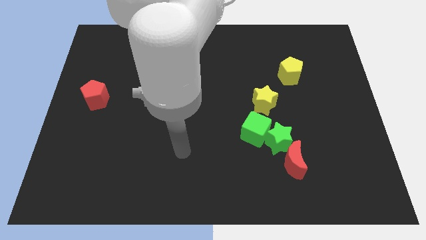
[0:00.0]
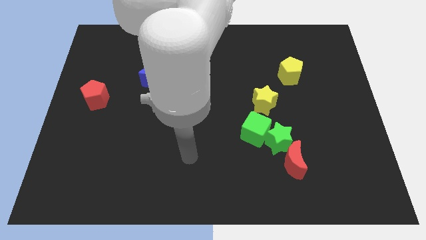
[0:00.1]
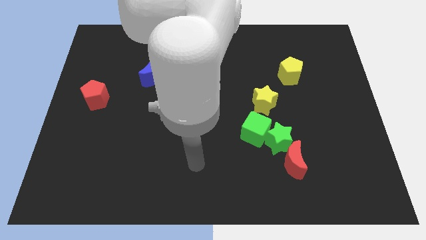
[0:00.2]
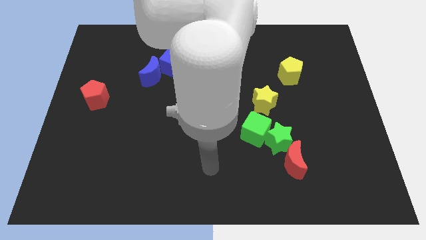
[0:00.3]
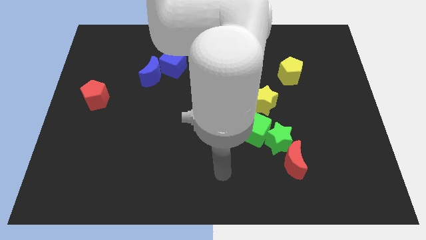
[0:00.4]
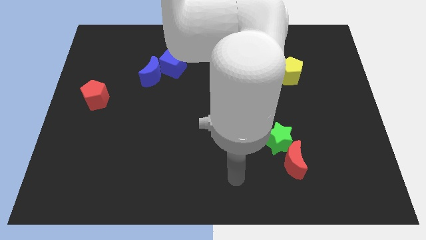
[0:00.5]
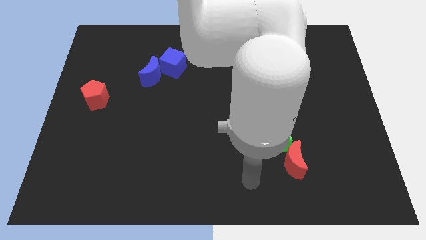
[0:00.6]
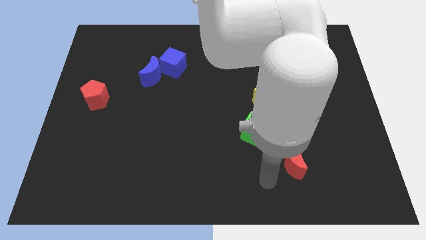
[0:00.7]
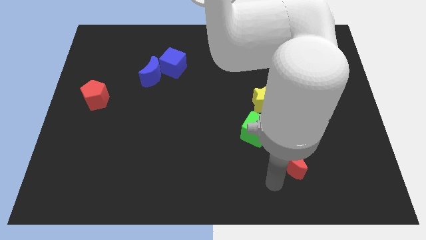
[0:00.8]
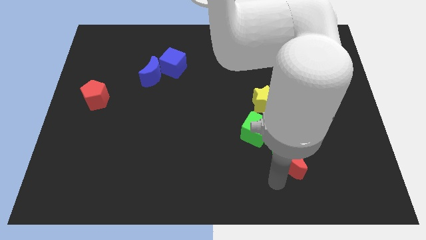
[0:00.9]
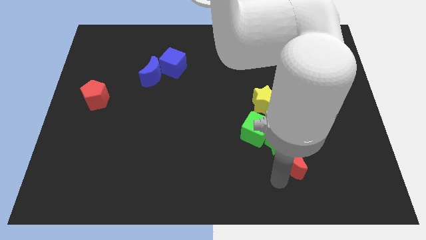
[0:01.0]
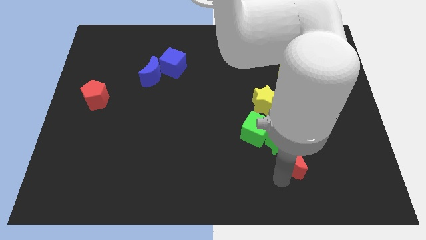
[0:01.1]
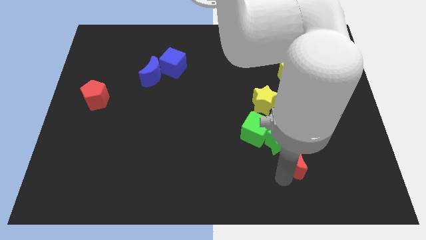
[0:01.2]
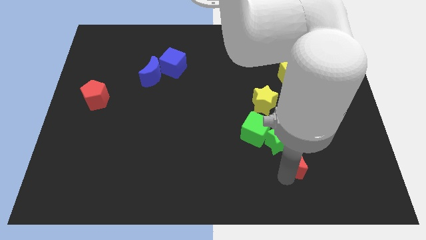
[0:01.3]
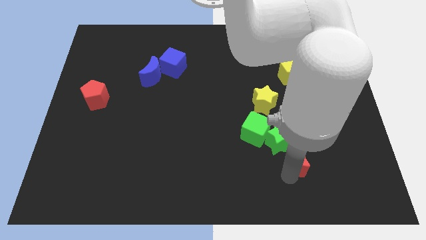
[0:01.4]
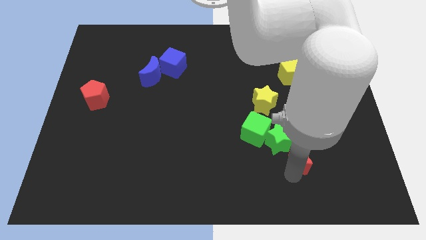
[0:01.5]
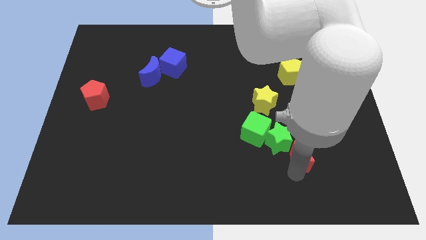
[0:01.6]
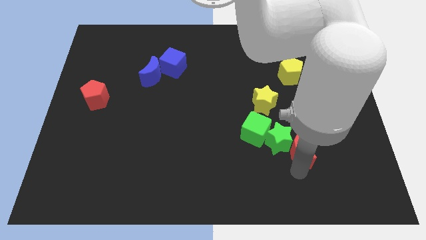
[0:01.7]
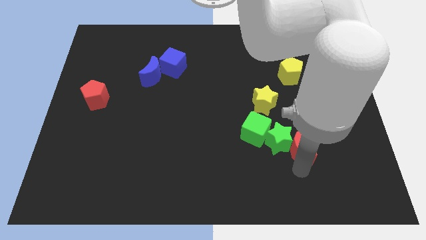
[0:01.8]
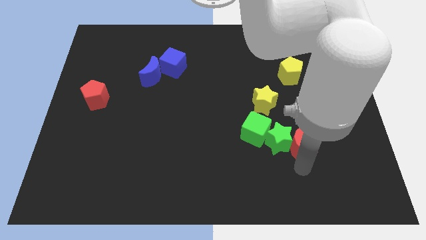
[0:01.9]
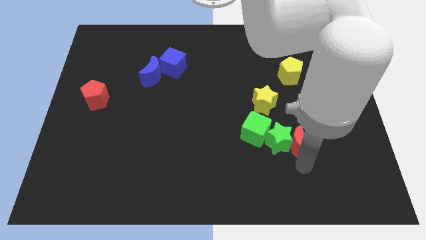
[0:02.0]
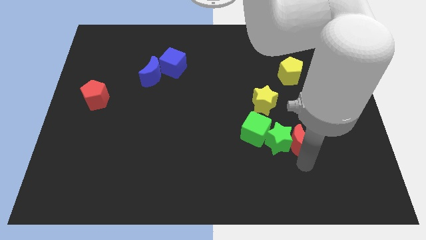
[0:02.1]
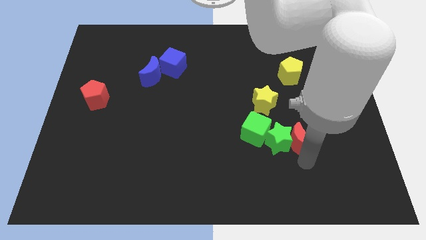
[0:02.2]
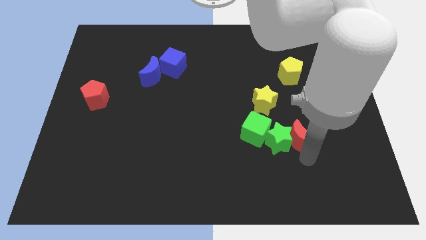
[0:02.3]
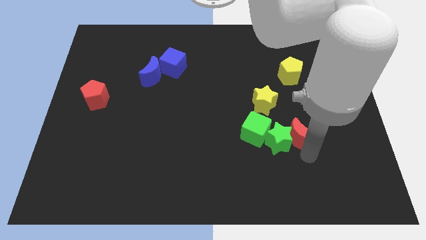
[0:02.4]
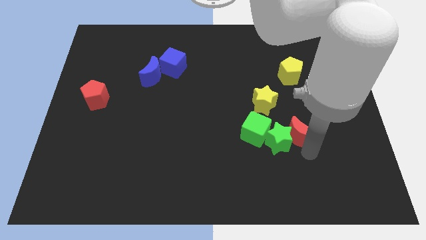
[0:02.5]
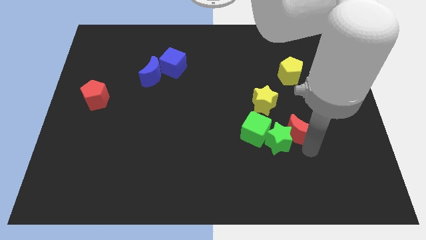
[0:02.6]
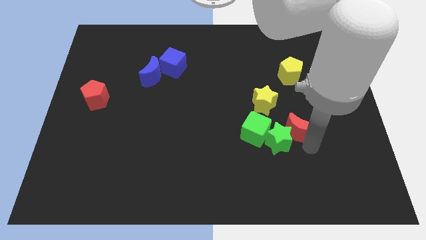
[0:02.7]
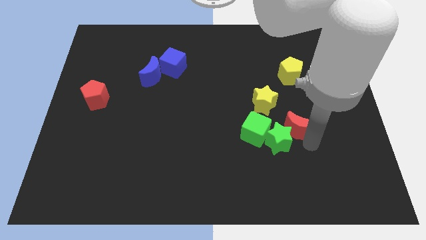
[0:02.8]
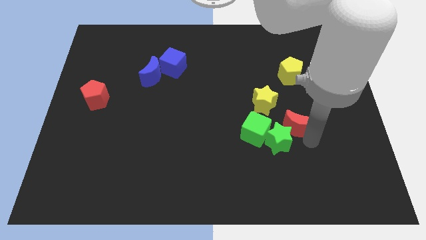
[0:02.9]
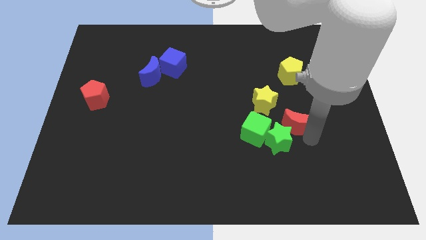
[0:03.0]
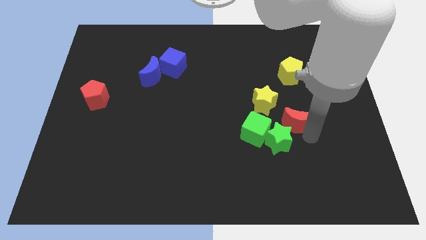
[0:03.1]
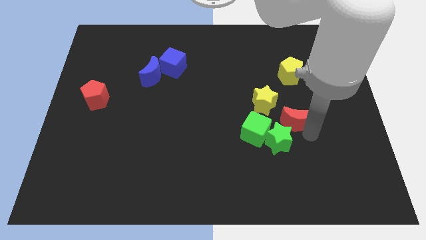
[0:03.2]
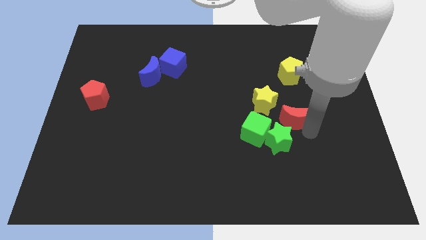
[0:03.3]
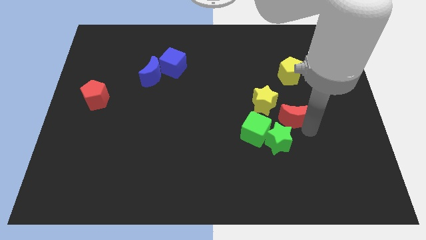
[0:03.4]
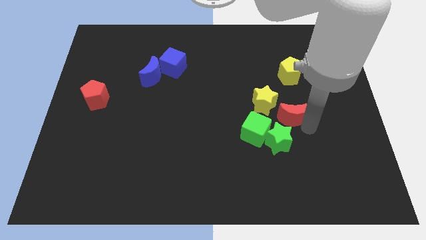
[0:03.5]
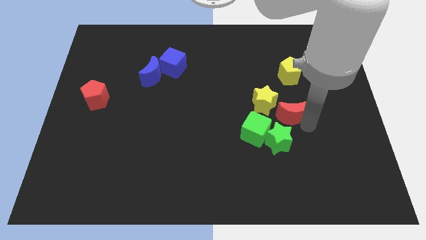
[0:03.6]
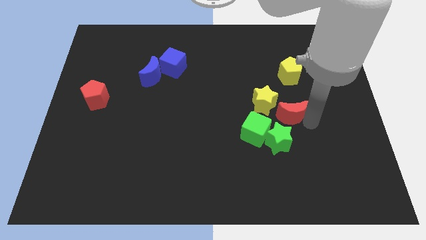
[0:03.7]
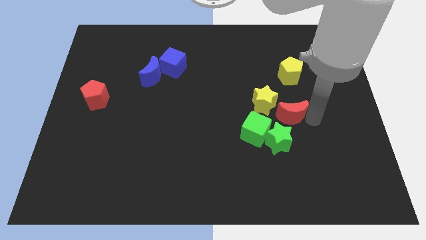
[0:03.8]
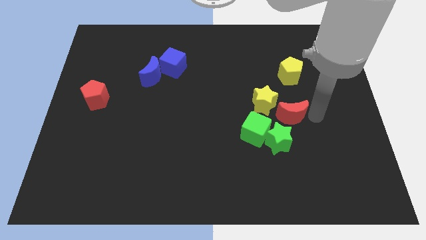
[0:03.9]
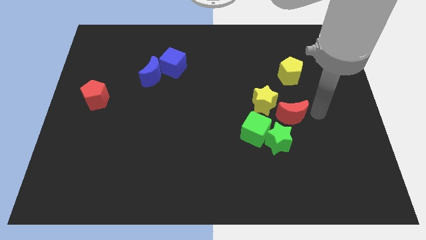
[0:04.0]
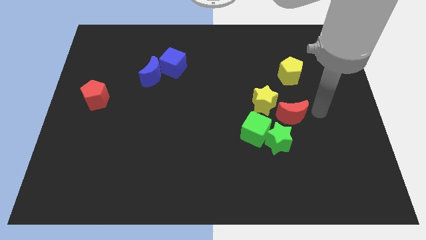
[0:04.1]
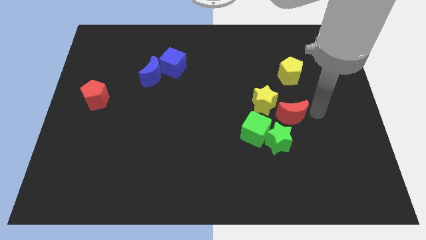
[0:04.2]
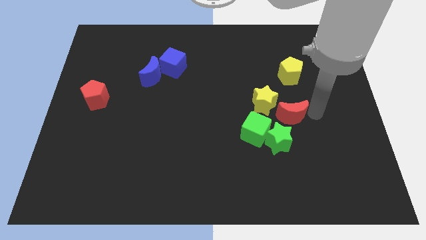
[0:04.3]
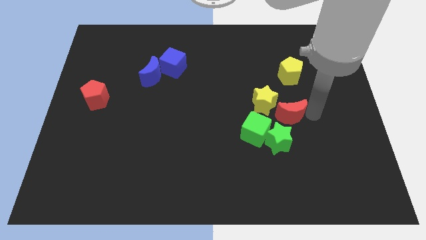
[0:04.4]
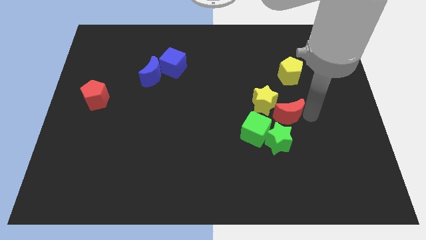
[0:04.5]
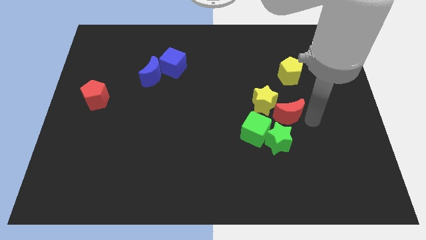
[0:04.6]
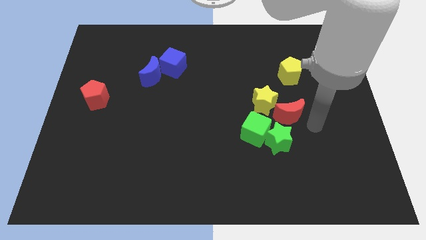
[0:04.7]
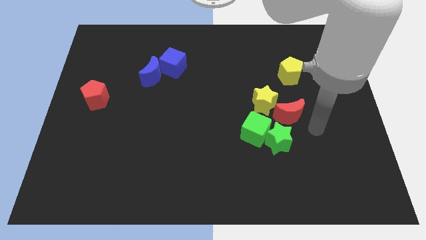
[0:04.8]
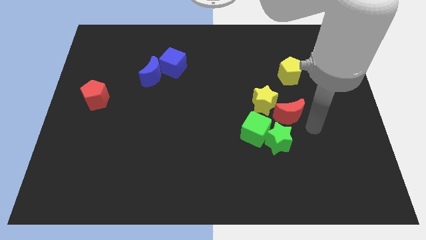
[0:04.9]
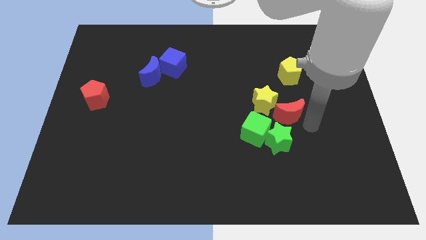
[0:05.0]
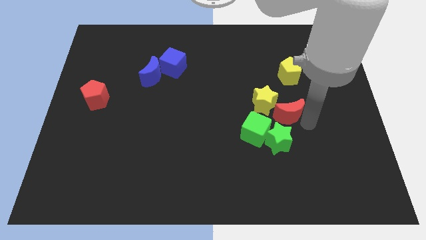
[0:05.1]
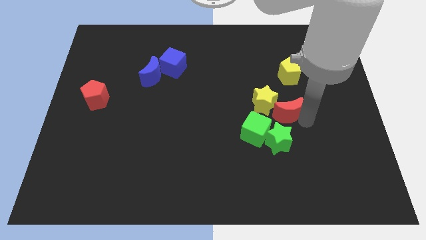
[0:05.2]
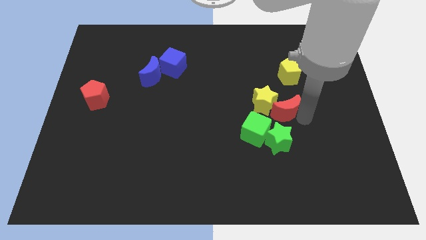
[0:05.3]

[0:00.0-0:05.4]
move the red moon next to the yellow star
